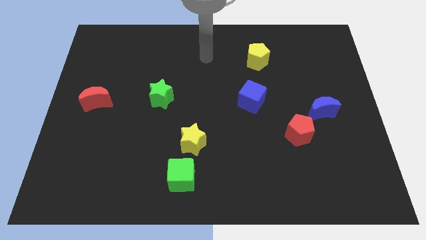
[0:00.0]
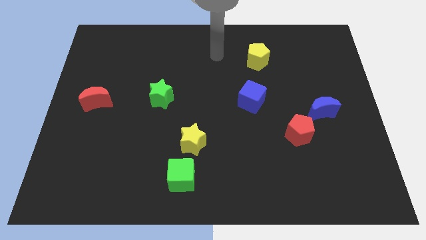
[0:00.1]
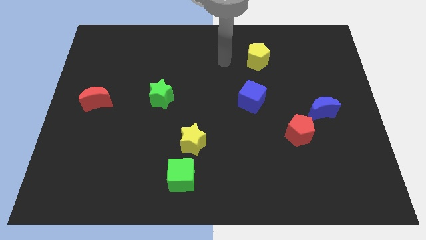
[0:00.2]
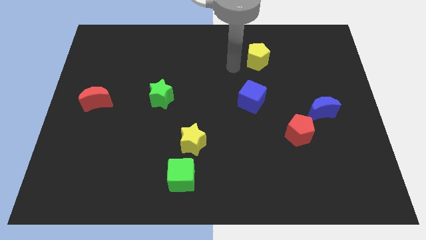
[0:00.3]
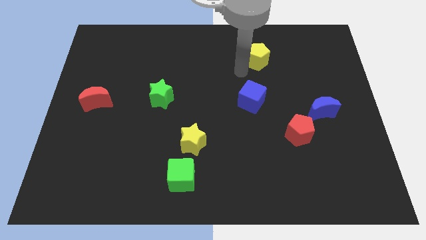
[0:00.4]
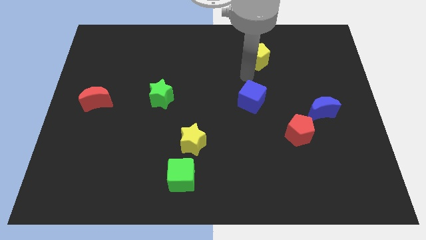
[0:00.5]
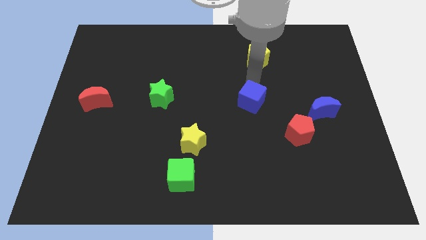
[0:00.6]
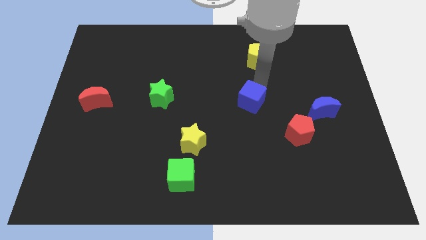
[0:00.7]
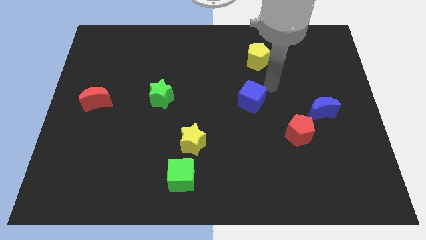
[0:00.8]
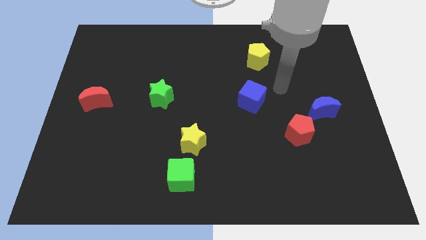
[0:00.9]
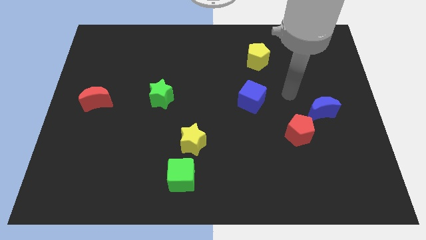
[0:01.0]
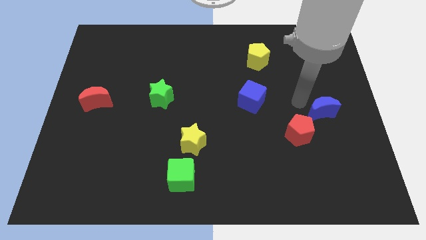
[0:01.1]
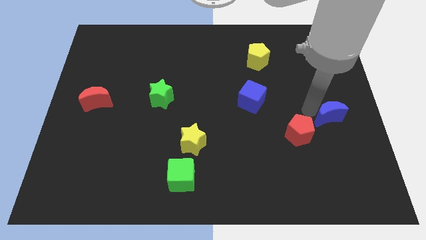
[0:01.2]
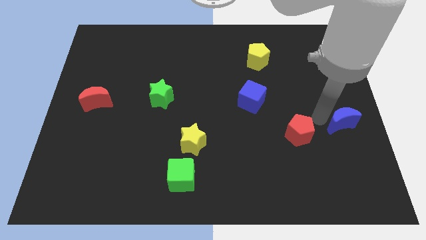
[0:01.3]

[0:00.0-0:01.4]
separate the red pentagon from the blue moon

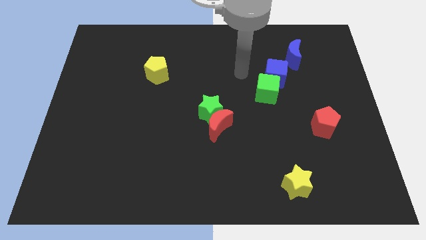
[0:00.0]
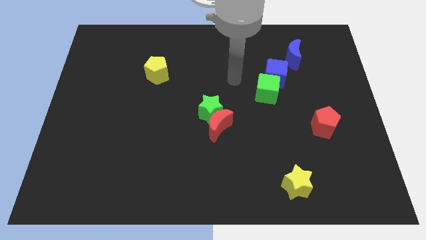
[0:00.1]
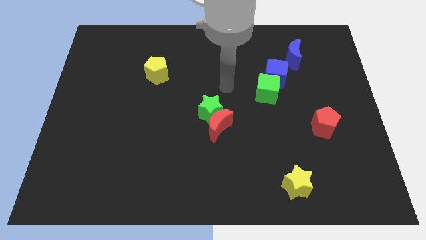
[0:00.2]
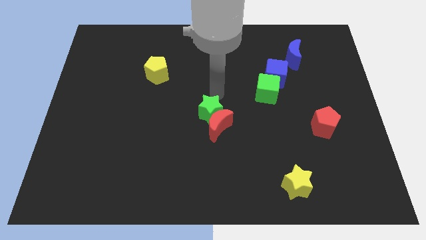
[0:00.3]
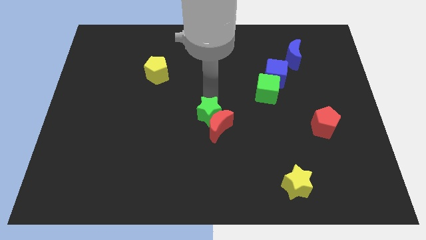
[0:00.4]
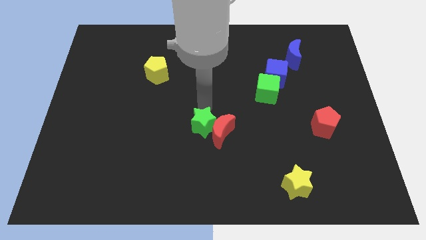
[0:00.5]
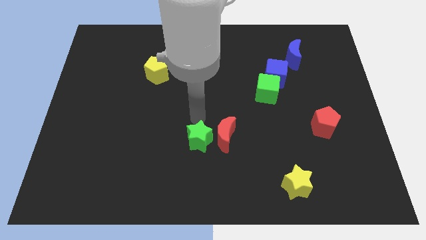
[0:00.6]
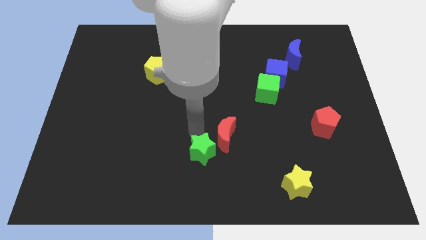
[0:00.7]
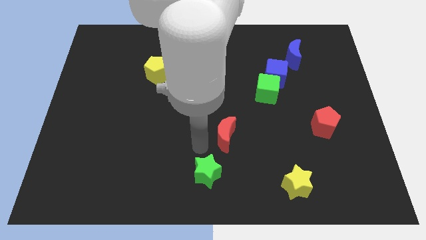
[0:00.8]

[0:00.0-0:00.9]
pull the red moon apart from the green star

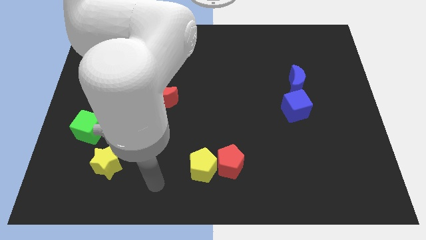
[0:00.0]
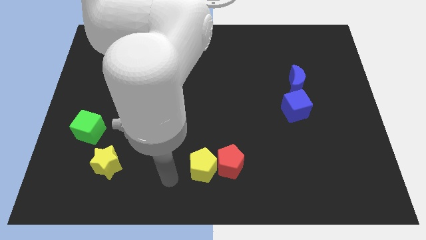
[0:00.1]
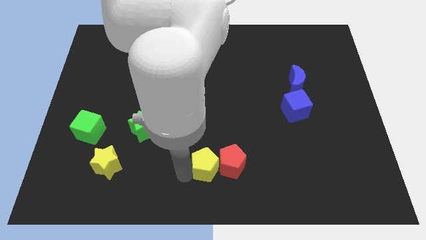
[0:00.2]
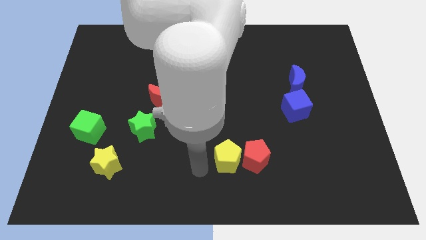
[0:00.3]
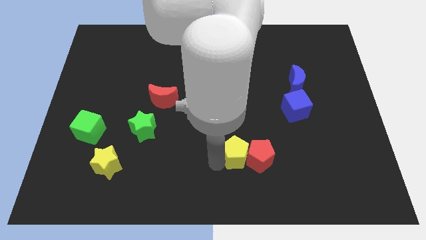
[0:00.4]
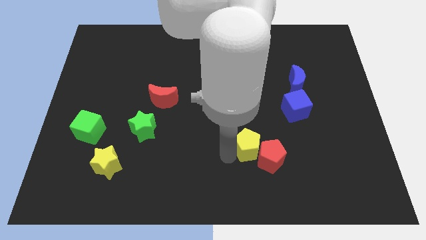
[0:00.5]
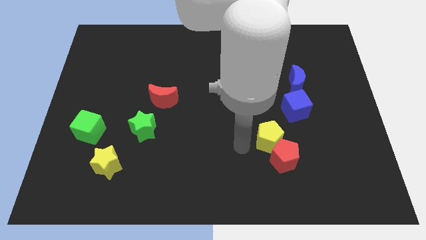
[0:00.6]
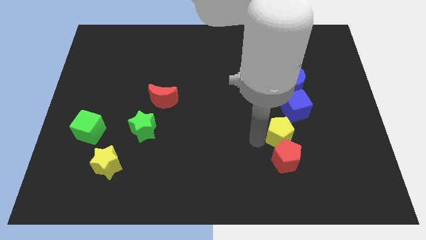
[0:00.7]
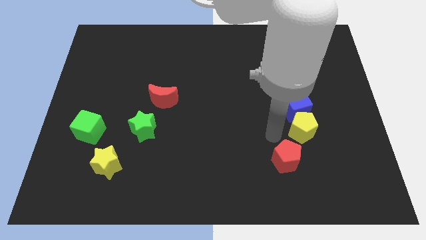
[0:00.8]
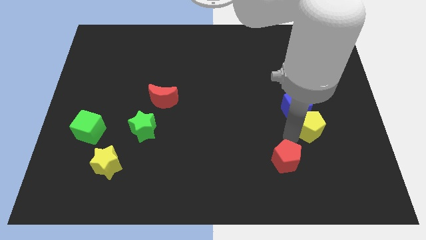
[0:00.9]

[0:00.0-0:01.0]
pull the red pentagon apart from the yellow pentagon

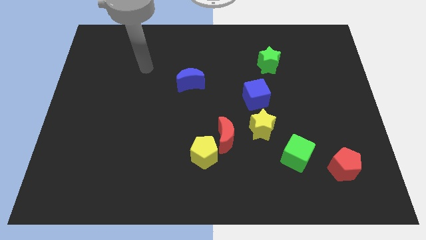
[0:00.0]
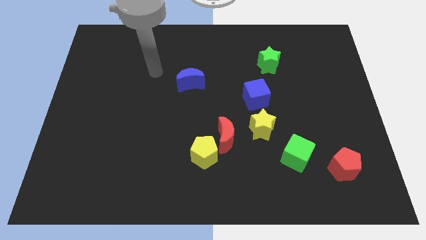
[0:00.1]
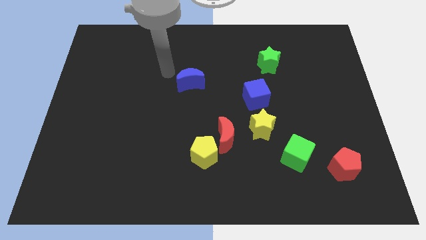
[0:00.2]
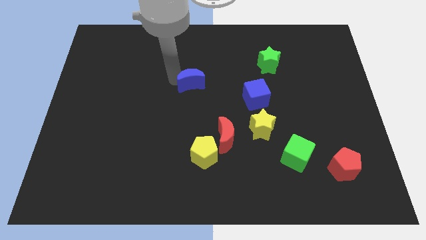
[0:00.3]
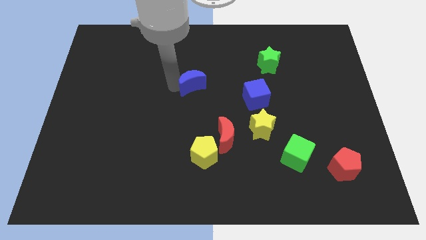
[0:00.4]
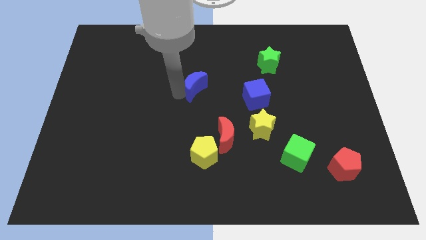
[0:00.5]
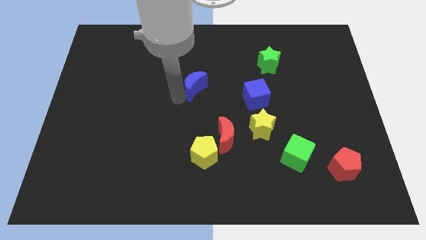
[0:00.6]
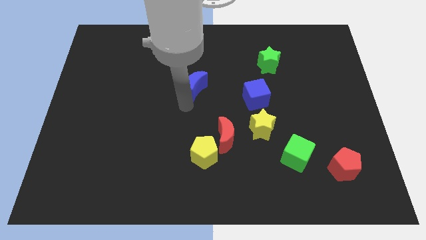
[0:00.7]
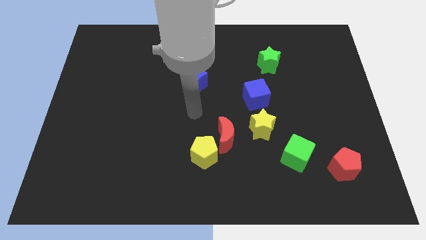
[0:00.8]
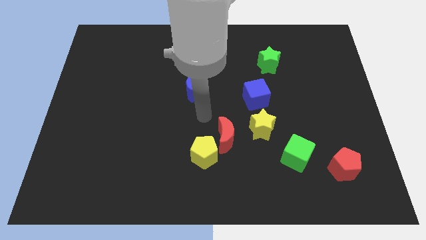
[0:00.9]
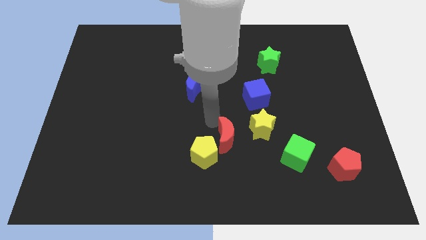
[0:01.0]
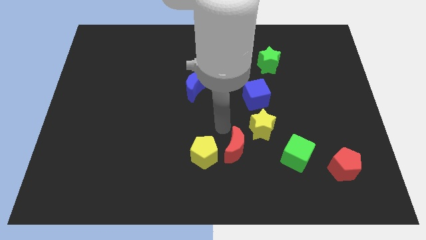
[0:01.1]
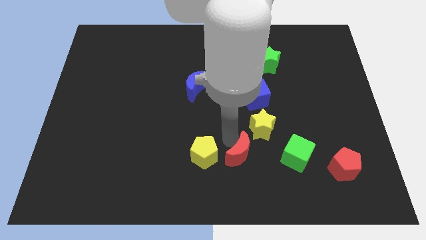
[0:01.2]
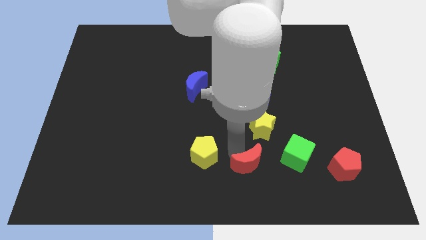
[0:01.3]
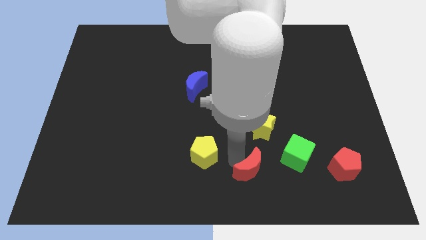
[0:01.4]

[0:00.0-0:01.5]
pull the yellow pentagon apart from the red moon

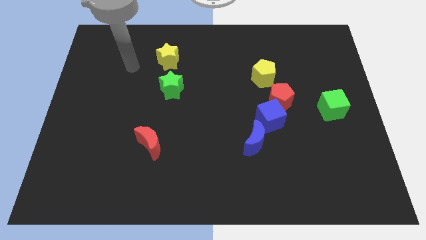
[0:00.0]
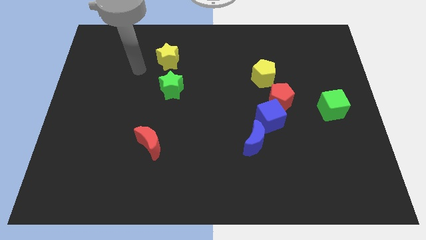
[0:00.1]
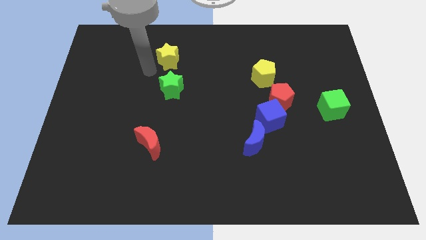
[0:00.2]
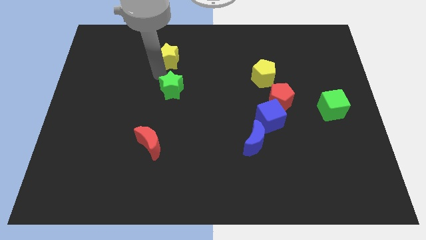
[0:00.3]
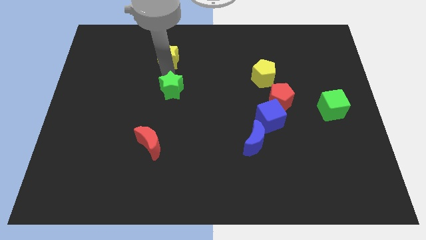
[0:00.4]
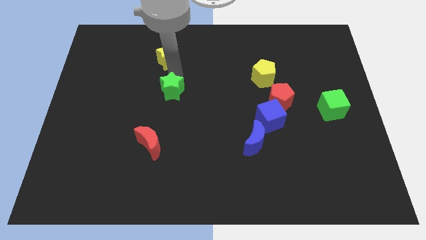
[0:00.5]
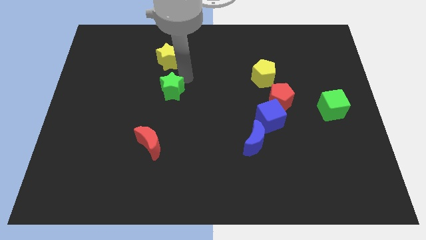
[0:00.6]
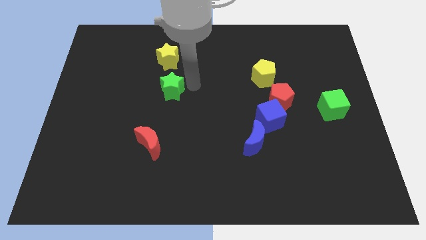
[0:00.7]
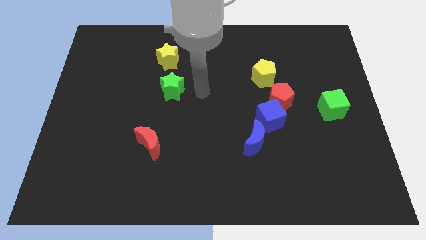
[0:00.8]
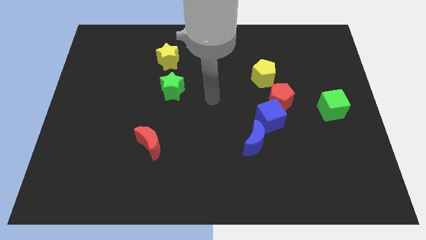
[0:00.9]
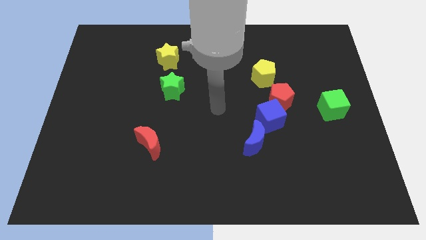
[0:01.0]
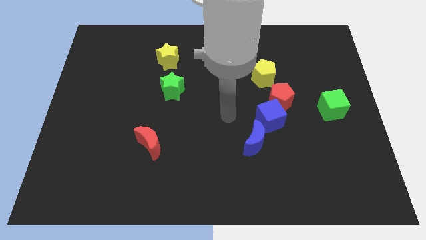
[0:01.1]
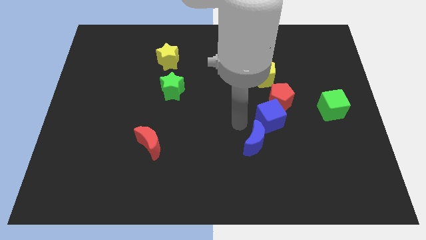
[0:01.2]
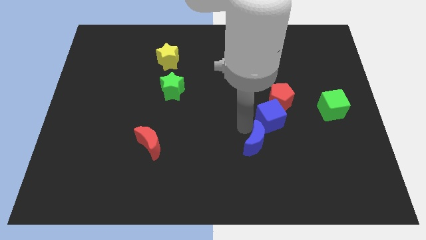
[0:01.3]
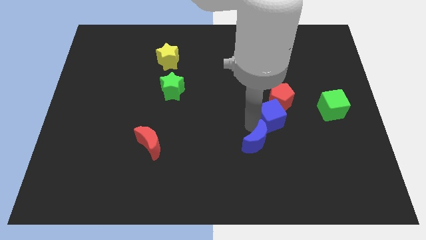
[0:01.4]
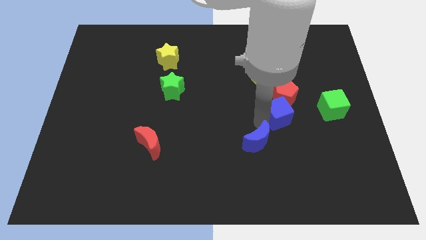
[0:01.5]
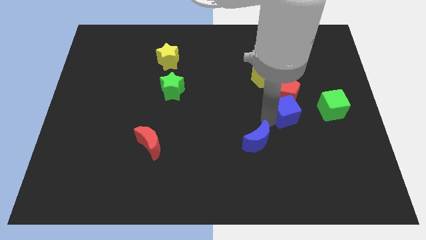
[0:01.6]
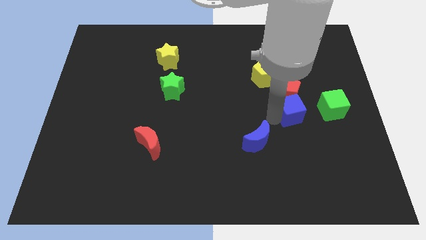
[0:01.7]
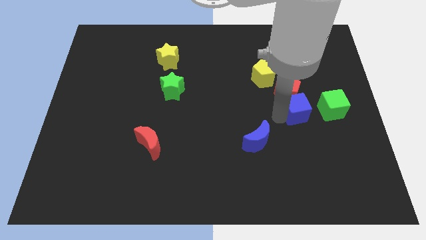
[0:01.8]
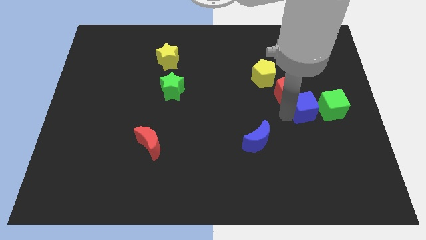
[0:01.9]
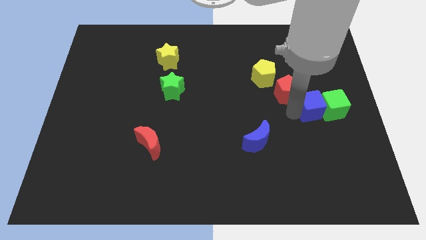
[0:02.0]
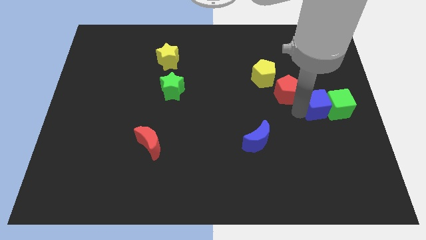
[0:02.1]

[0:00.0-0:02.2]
separate the blue cube from the red pentagon and blue moon

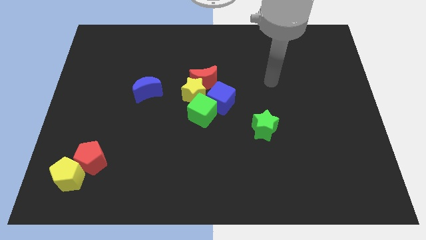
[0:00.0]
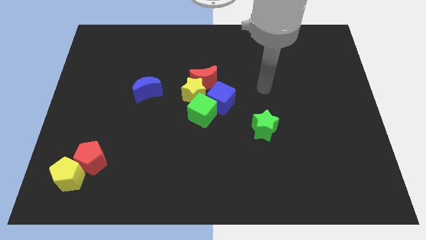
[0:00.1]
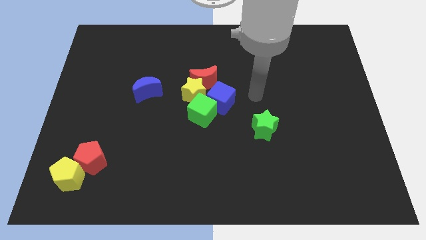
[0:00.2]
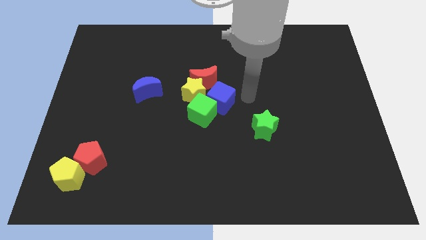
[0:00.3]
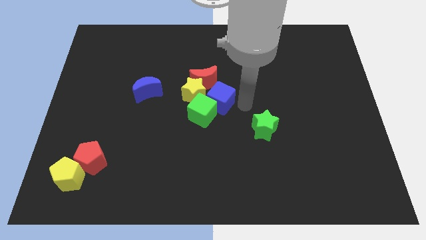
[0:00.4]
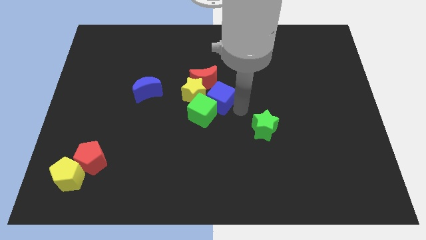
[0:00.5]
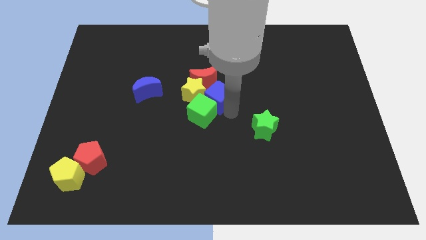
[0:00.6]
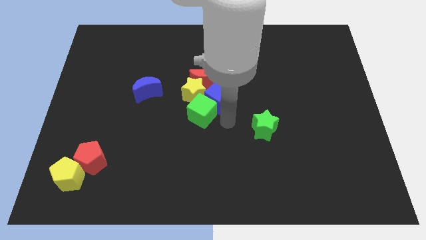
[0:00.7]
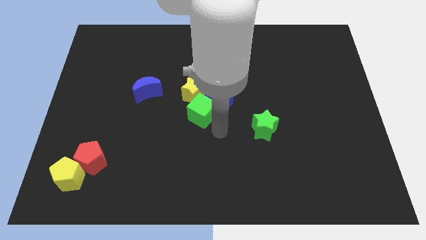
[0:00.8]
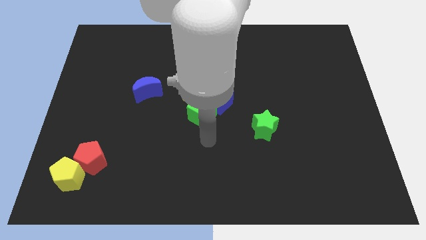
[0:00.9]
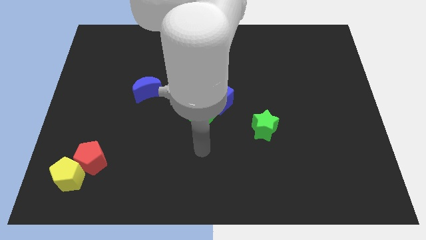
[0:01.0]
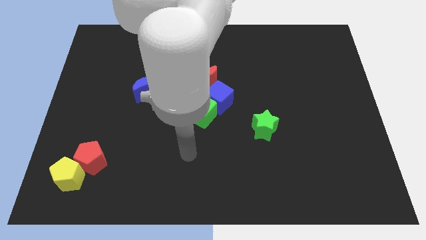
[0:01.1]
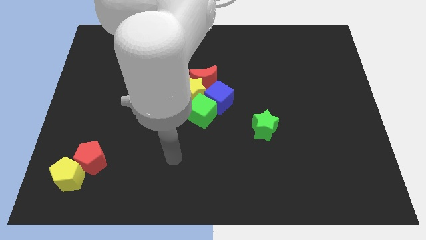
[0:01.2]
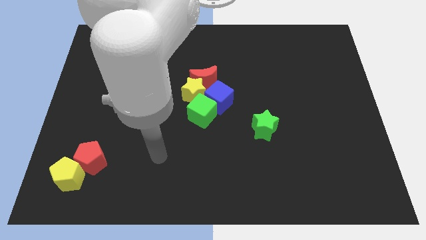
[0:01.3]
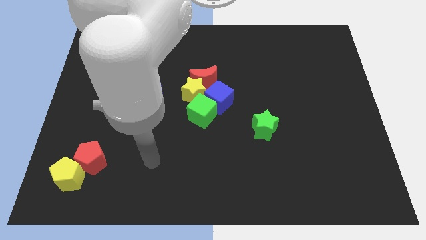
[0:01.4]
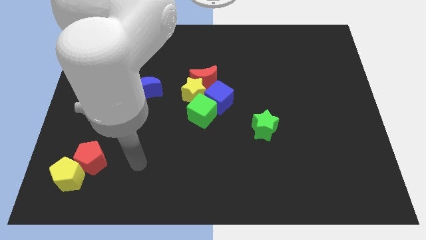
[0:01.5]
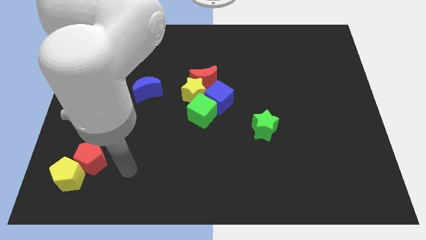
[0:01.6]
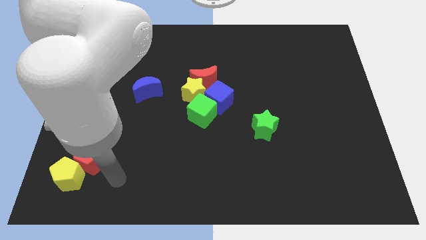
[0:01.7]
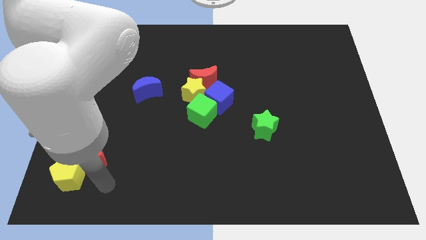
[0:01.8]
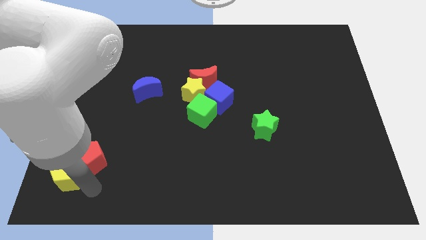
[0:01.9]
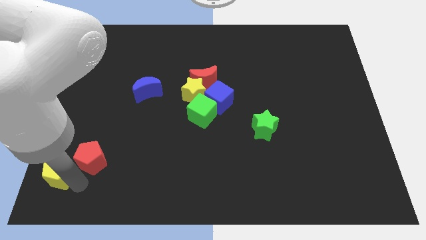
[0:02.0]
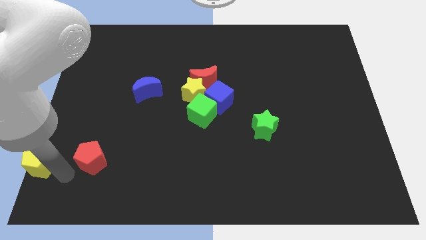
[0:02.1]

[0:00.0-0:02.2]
separate the red pentagon from the yellow pentagon
